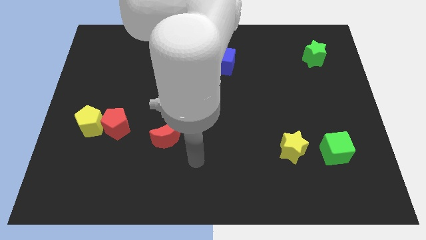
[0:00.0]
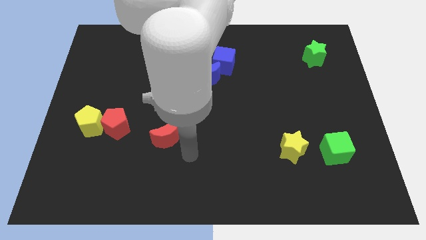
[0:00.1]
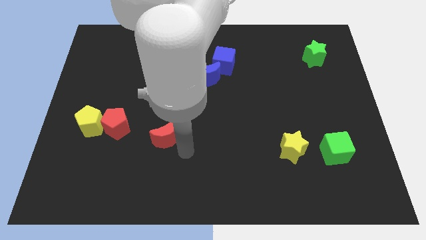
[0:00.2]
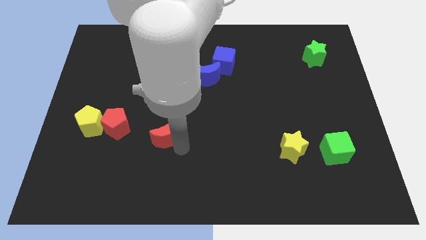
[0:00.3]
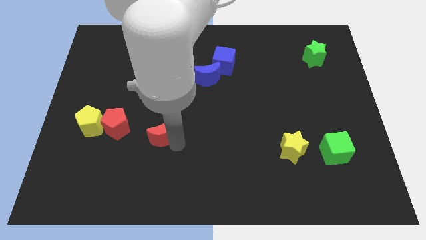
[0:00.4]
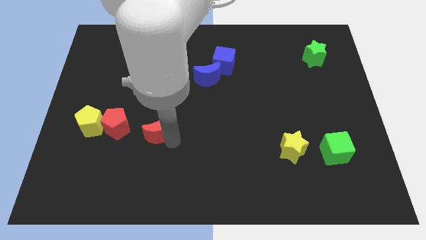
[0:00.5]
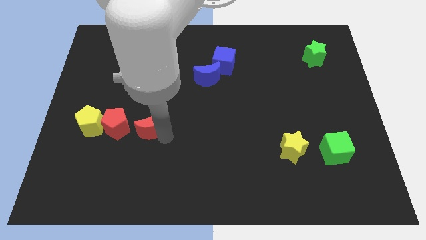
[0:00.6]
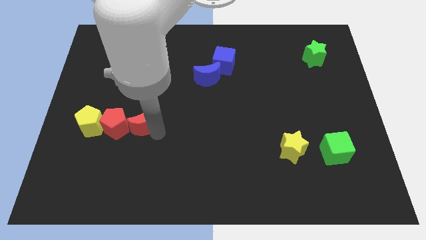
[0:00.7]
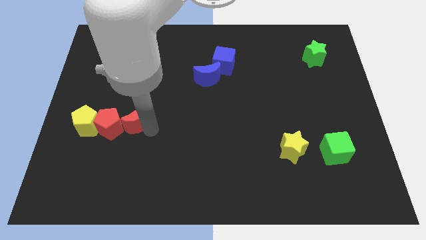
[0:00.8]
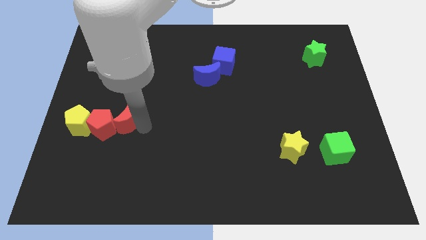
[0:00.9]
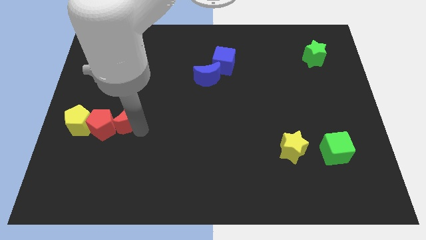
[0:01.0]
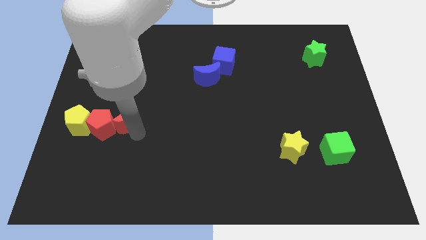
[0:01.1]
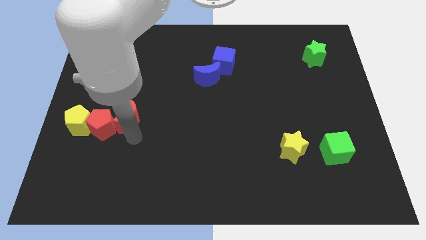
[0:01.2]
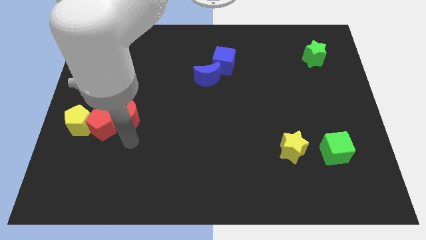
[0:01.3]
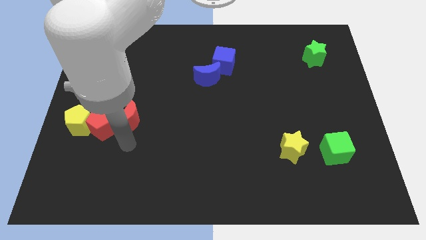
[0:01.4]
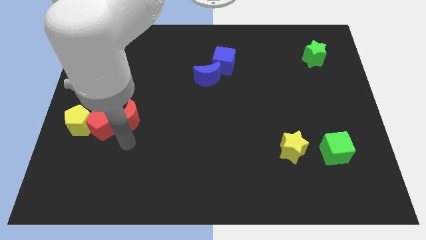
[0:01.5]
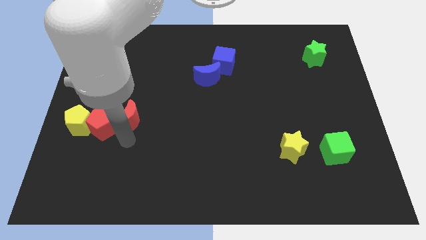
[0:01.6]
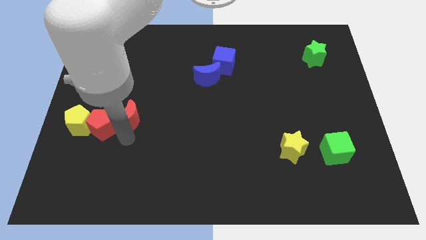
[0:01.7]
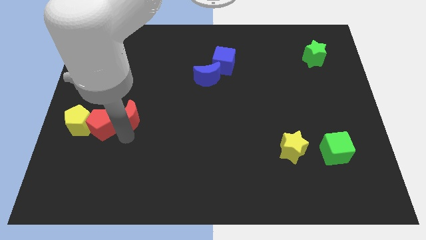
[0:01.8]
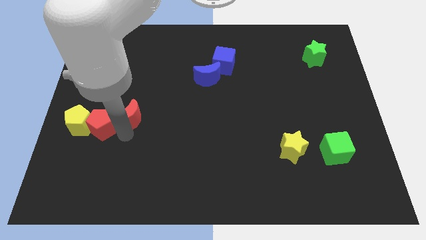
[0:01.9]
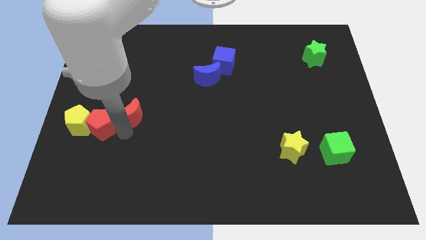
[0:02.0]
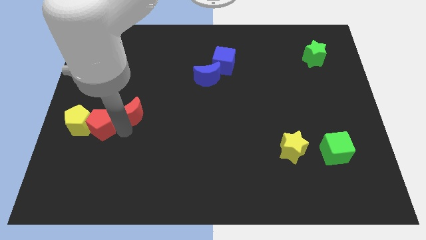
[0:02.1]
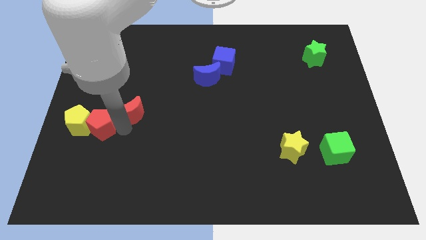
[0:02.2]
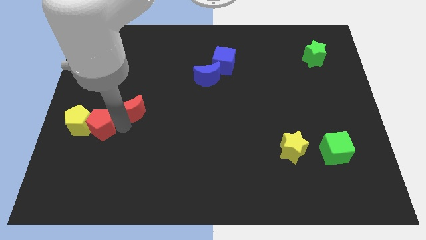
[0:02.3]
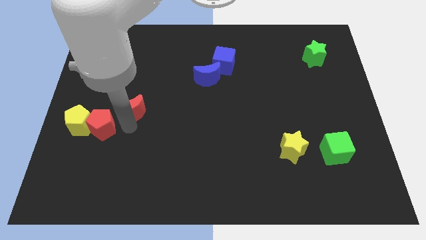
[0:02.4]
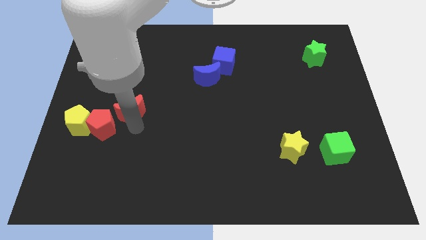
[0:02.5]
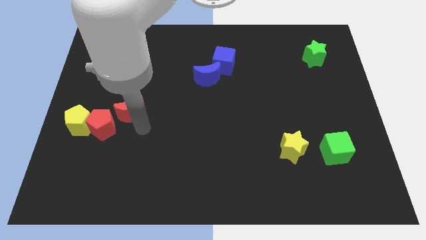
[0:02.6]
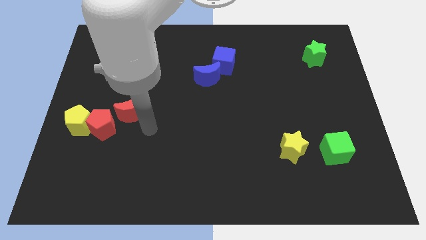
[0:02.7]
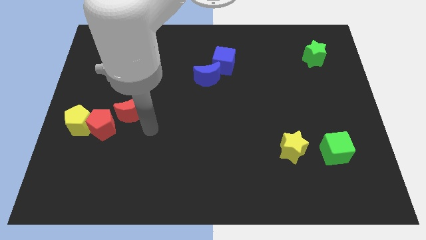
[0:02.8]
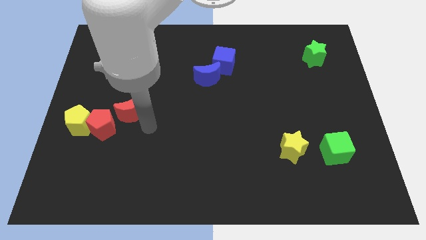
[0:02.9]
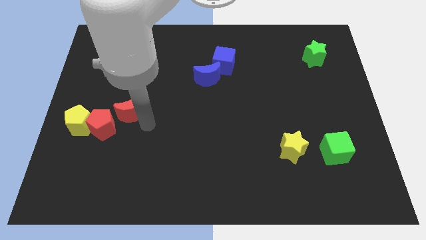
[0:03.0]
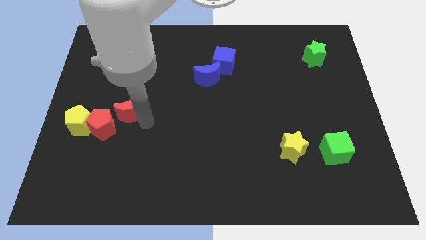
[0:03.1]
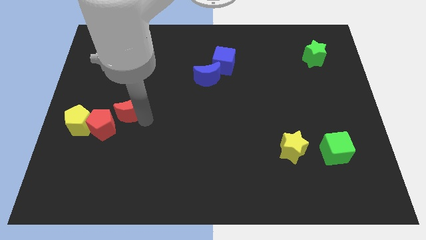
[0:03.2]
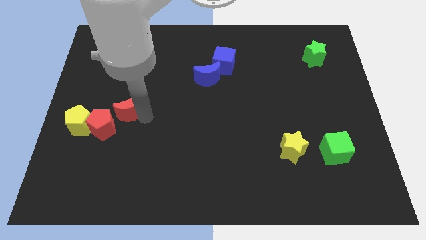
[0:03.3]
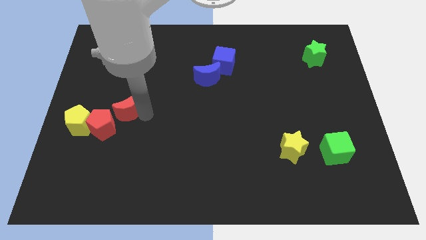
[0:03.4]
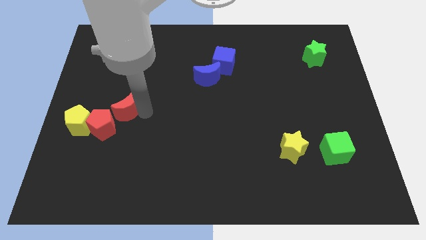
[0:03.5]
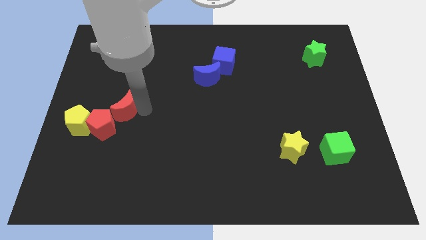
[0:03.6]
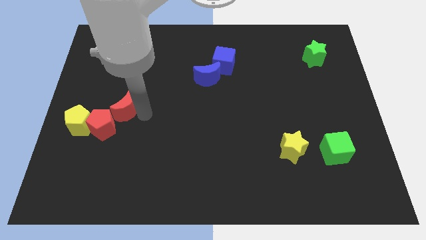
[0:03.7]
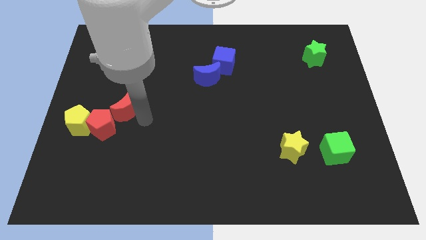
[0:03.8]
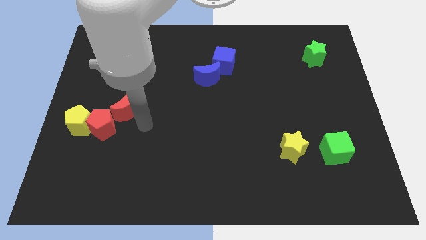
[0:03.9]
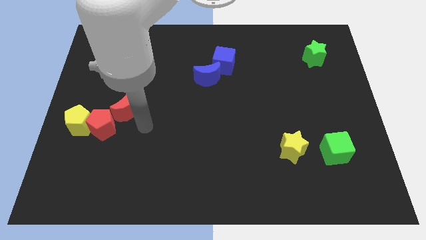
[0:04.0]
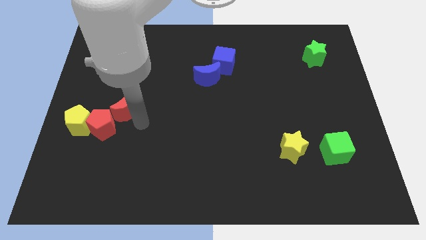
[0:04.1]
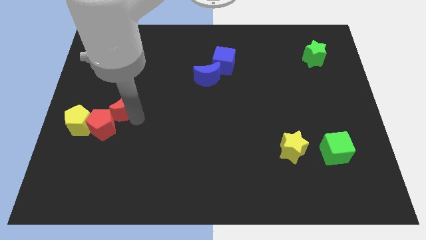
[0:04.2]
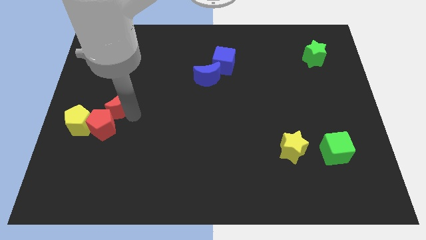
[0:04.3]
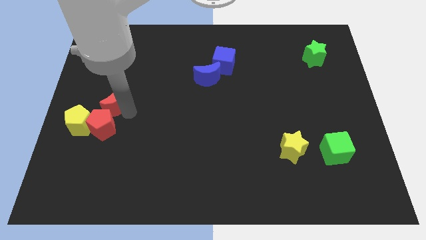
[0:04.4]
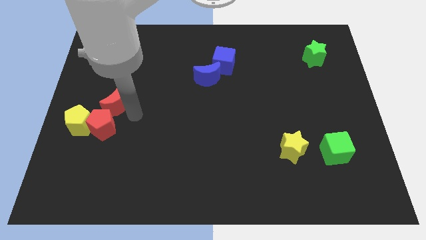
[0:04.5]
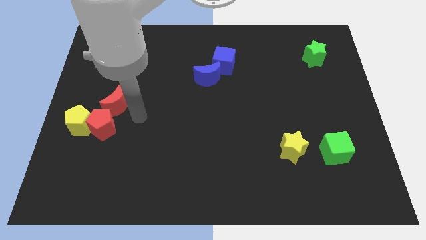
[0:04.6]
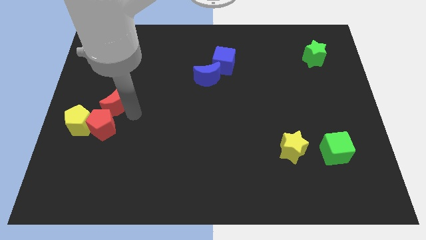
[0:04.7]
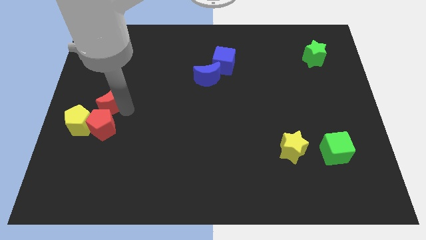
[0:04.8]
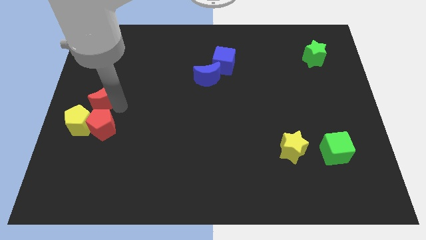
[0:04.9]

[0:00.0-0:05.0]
move the red moon to the top side of the yellow pentagon

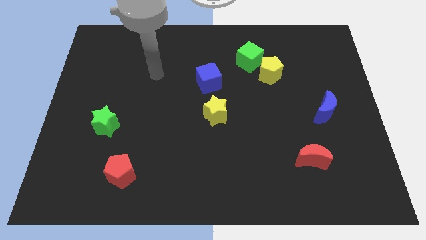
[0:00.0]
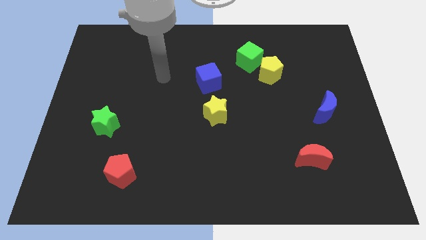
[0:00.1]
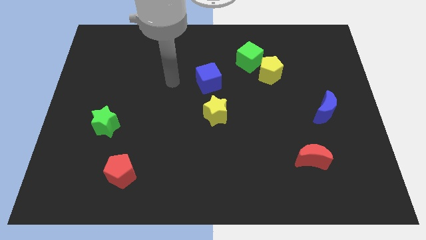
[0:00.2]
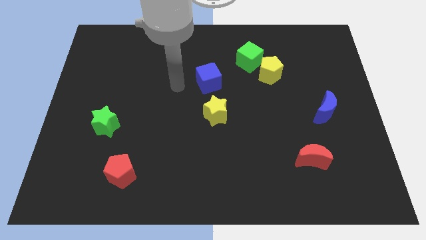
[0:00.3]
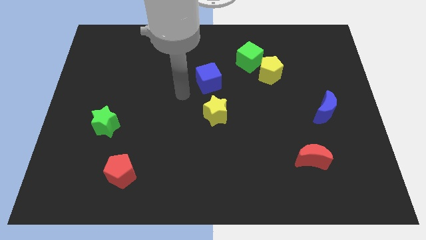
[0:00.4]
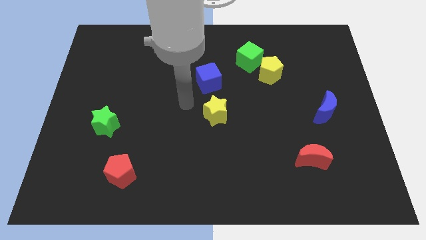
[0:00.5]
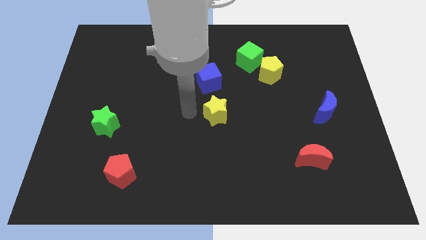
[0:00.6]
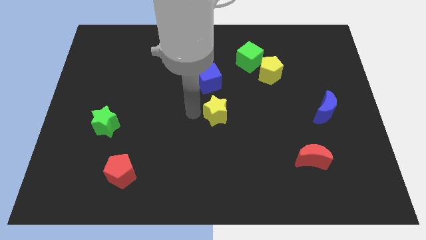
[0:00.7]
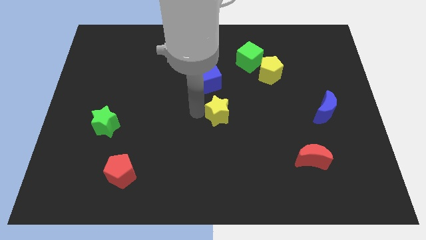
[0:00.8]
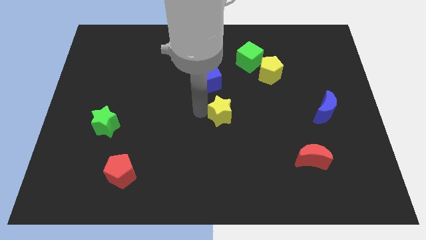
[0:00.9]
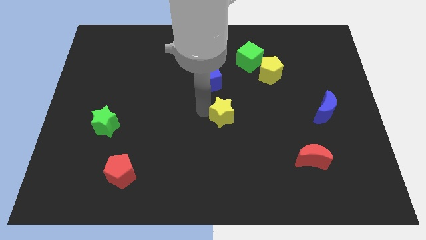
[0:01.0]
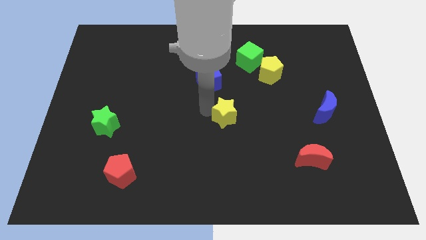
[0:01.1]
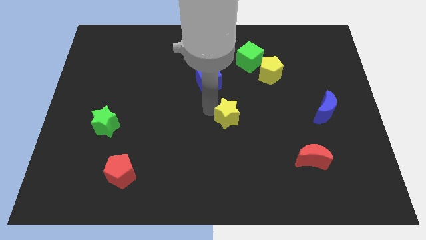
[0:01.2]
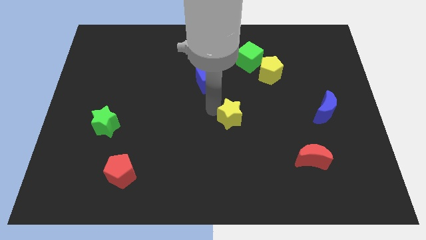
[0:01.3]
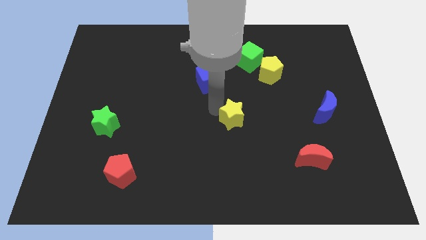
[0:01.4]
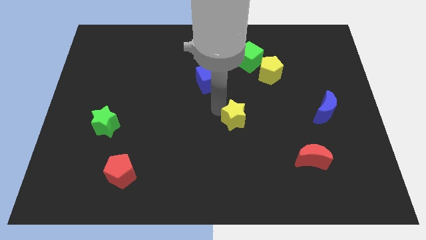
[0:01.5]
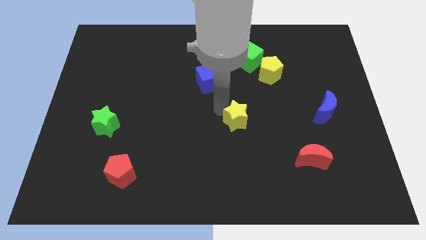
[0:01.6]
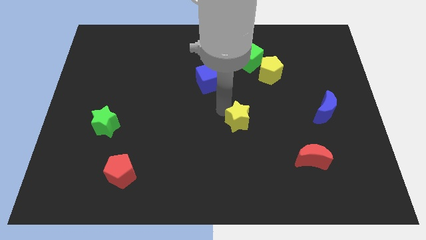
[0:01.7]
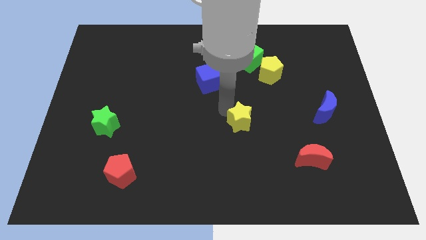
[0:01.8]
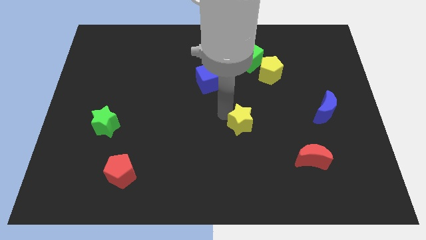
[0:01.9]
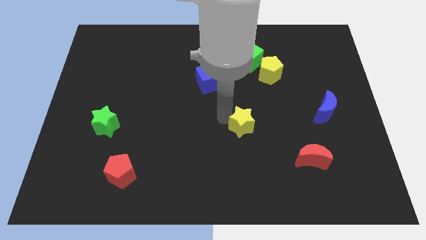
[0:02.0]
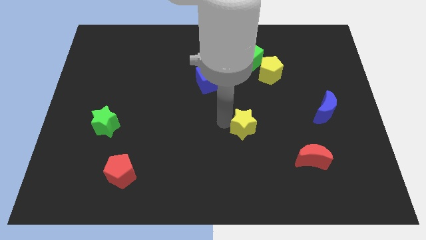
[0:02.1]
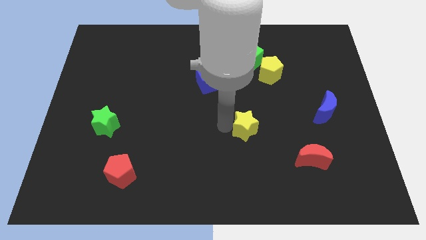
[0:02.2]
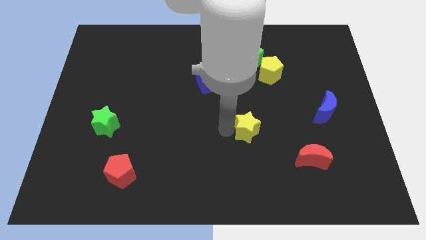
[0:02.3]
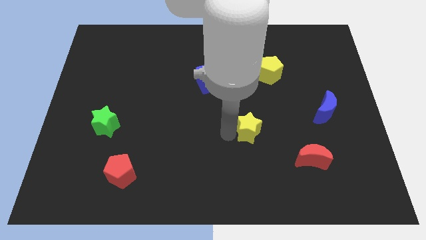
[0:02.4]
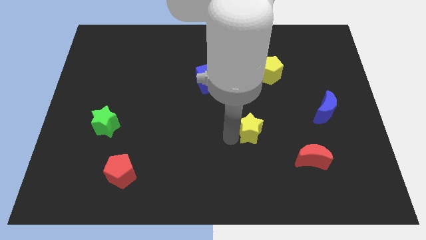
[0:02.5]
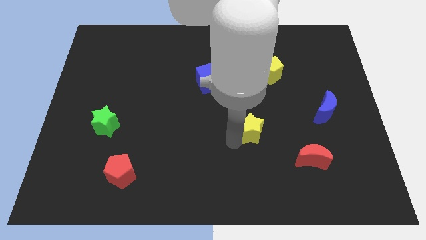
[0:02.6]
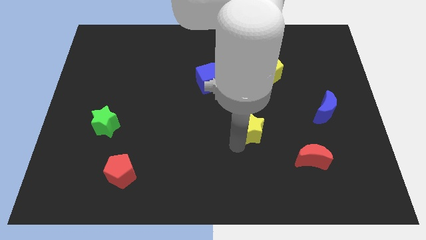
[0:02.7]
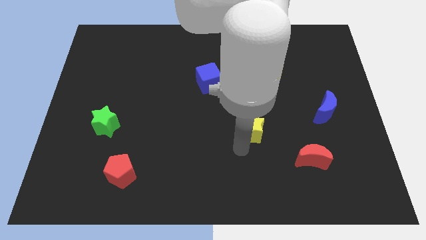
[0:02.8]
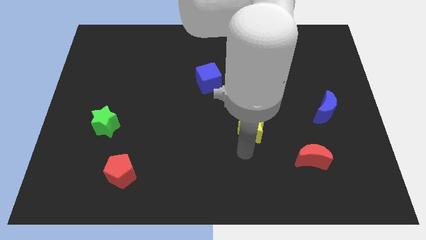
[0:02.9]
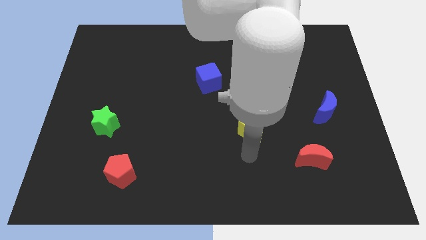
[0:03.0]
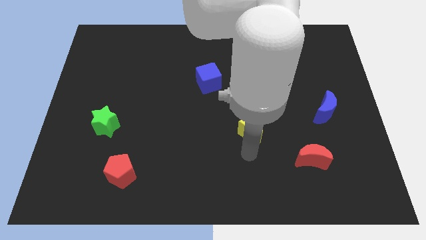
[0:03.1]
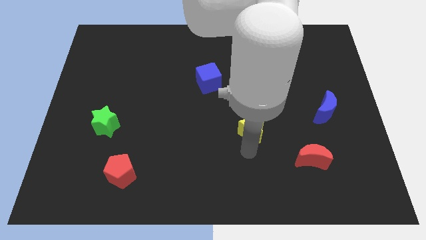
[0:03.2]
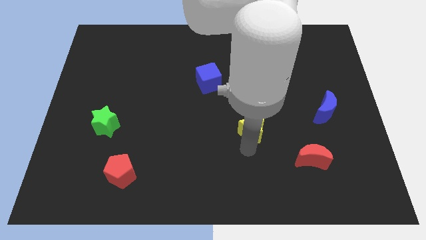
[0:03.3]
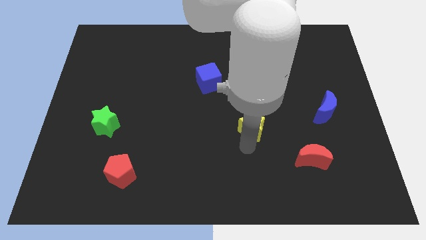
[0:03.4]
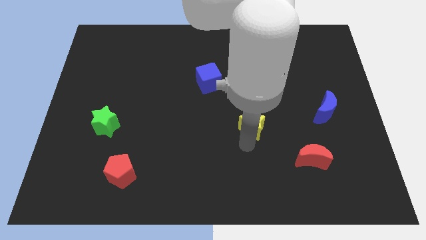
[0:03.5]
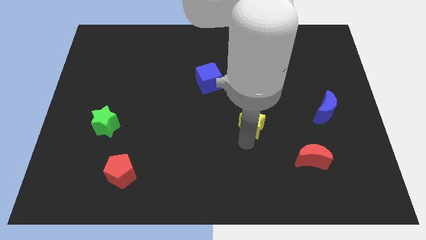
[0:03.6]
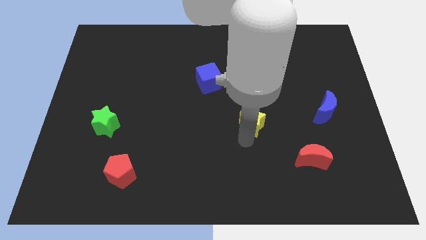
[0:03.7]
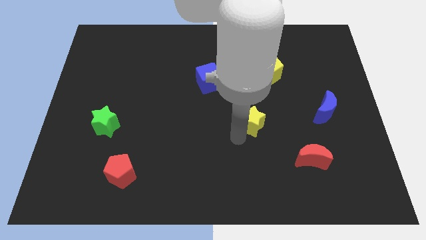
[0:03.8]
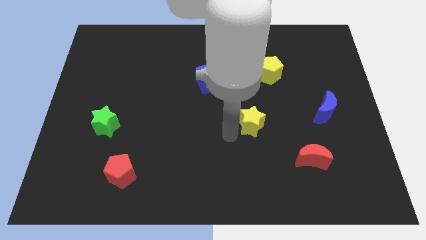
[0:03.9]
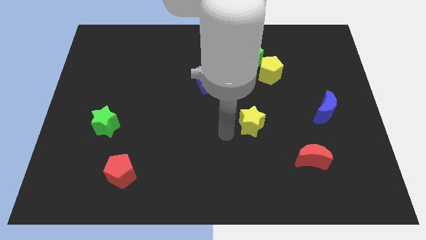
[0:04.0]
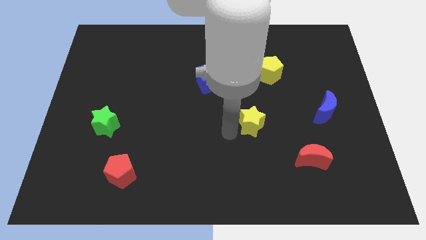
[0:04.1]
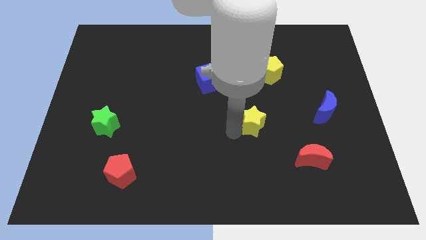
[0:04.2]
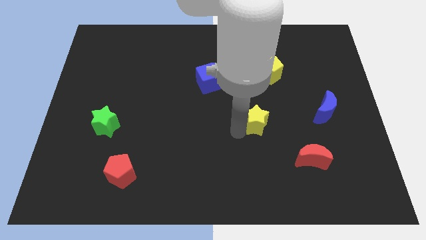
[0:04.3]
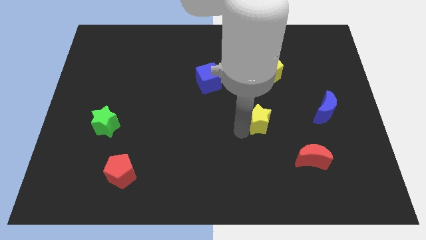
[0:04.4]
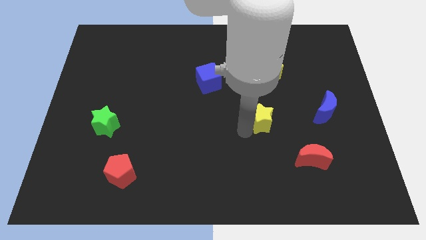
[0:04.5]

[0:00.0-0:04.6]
slide the yellow star left of the blue moon
